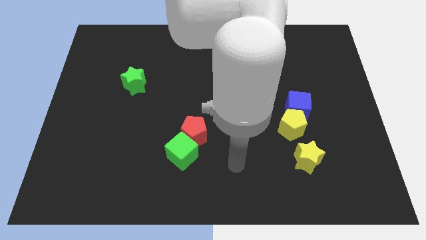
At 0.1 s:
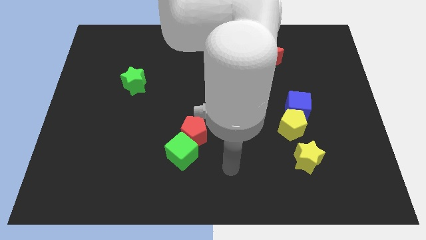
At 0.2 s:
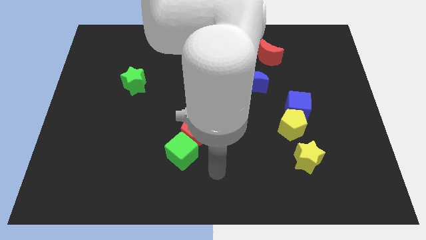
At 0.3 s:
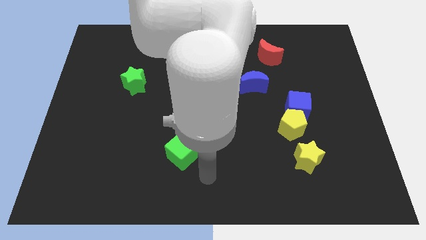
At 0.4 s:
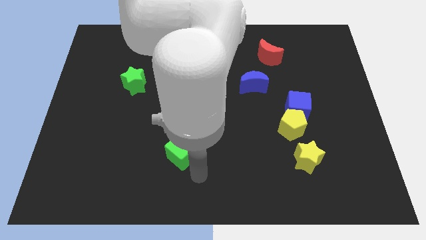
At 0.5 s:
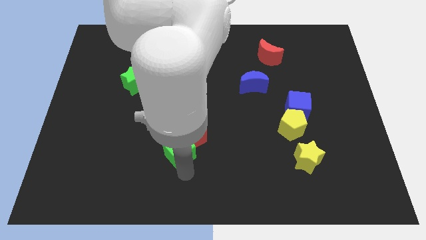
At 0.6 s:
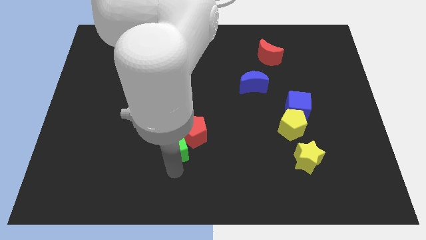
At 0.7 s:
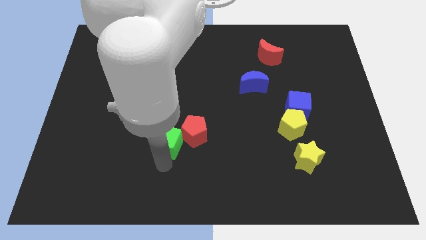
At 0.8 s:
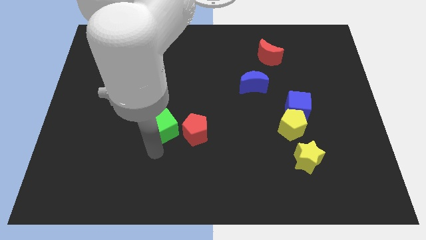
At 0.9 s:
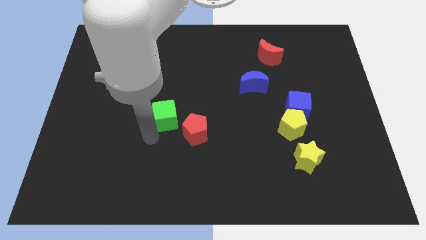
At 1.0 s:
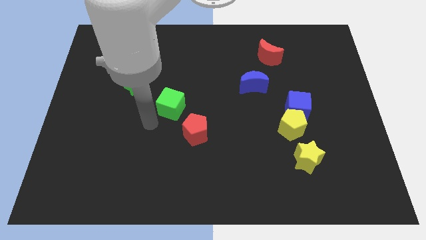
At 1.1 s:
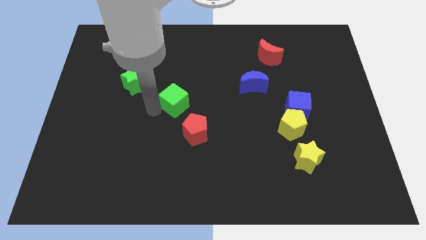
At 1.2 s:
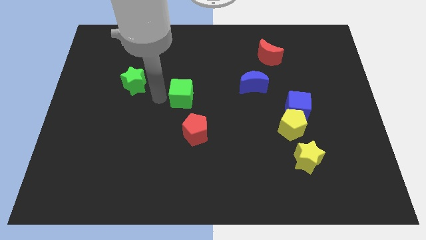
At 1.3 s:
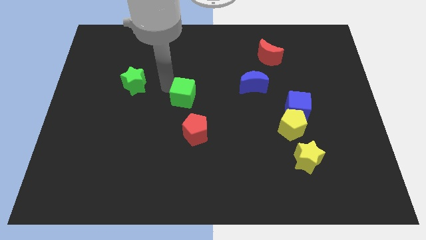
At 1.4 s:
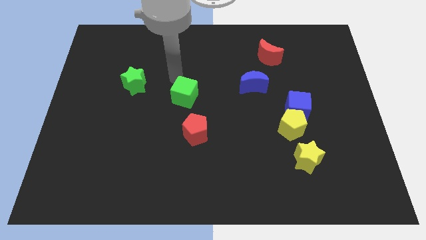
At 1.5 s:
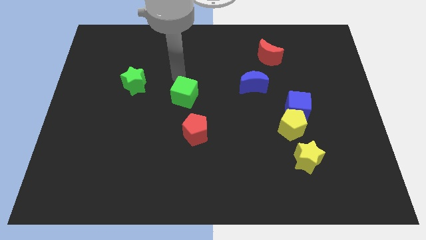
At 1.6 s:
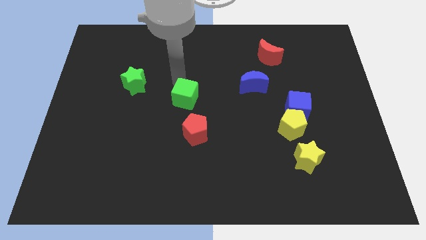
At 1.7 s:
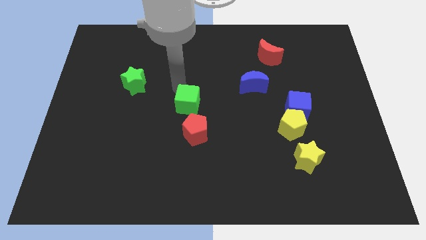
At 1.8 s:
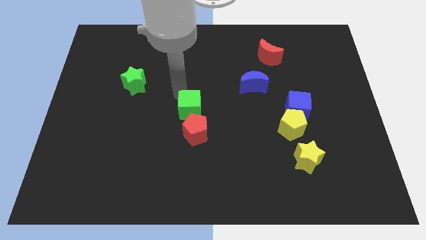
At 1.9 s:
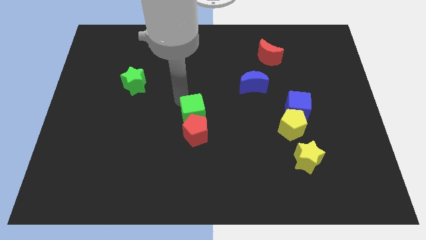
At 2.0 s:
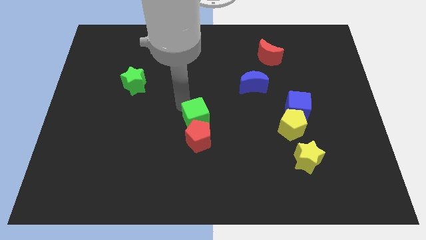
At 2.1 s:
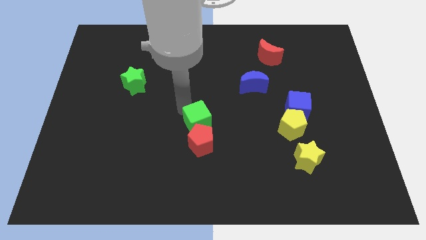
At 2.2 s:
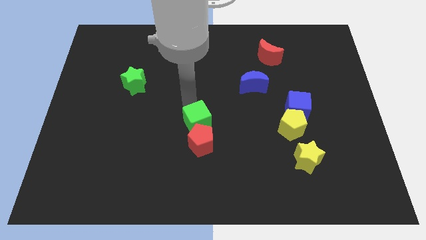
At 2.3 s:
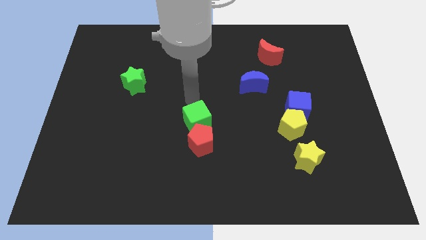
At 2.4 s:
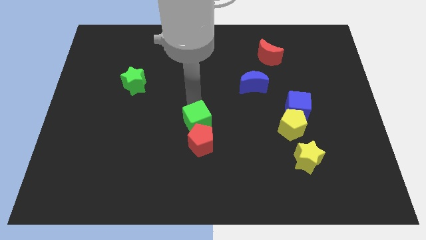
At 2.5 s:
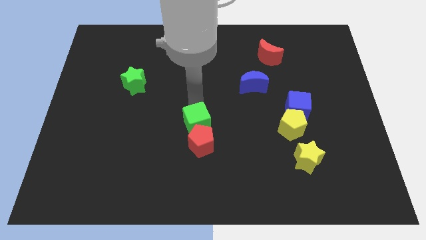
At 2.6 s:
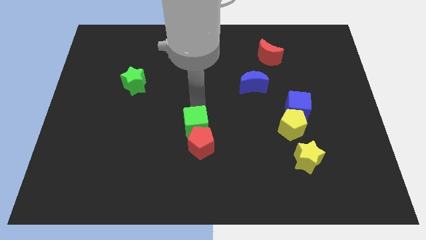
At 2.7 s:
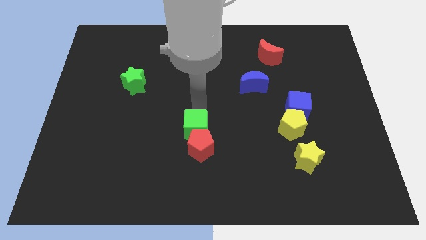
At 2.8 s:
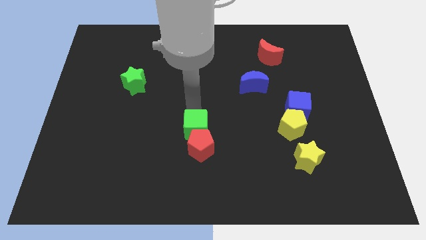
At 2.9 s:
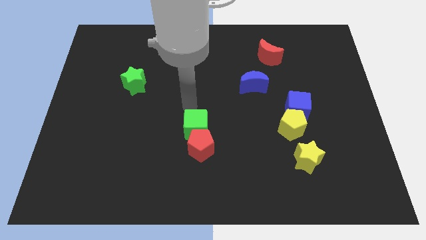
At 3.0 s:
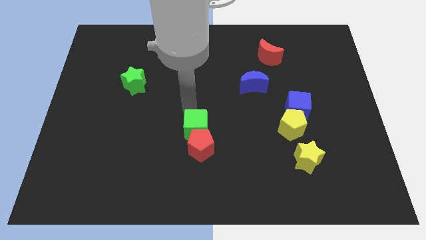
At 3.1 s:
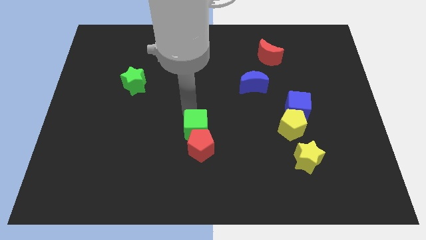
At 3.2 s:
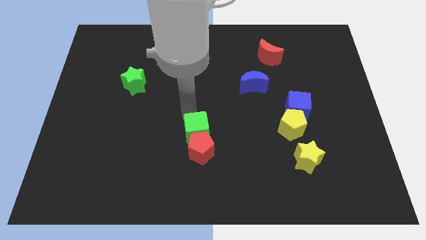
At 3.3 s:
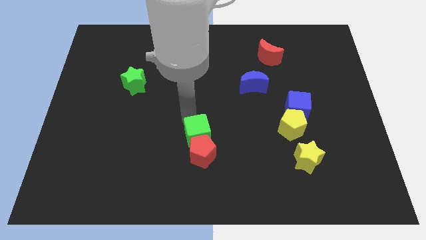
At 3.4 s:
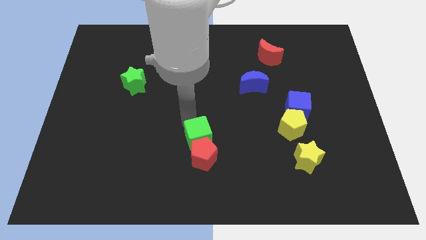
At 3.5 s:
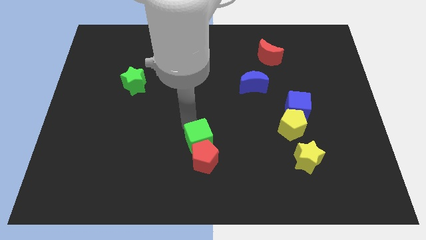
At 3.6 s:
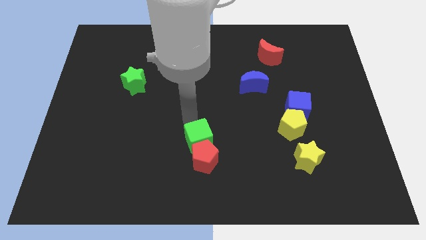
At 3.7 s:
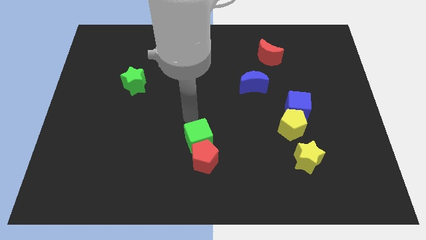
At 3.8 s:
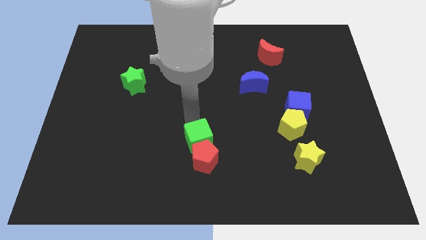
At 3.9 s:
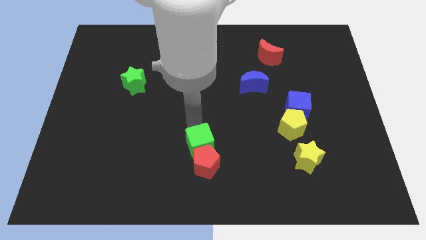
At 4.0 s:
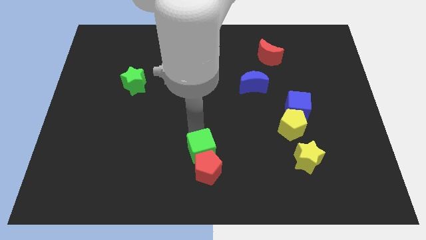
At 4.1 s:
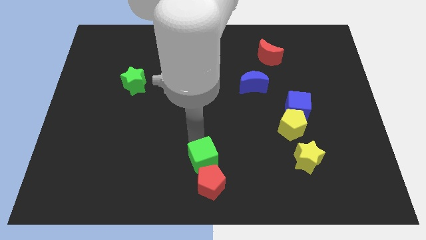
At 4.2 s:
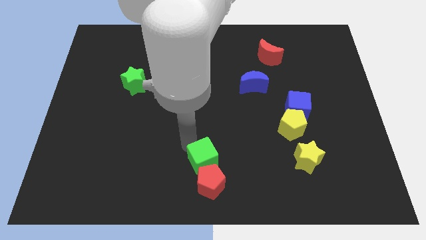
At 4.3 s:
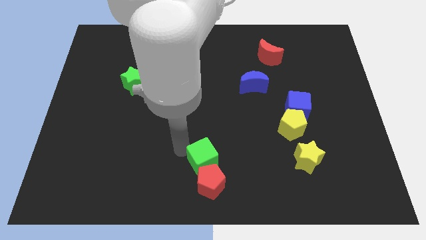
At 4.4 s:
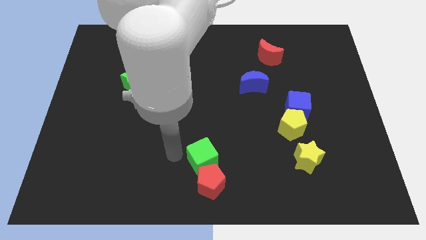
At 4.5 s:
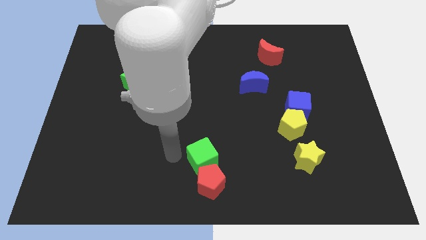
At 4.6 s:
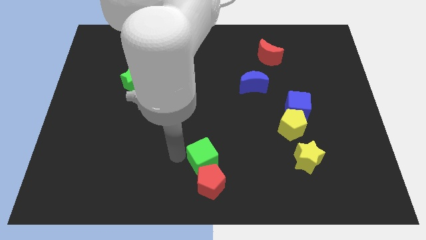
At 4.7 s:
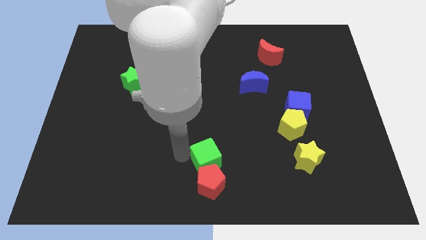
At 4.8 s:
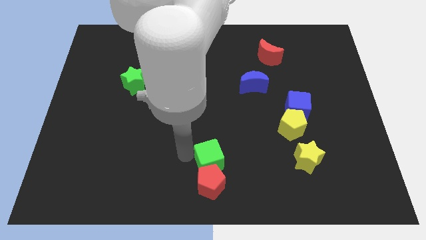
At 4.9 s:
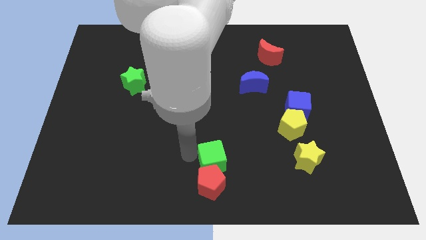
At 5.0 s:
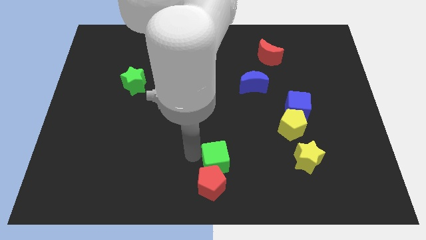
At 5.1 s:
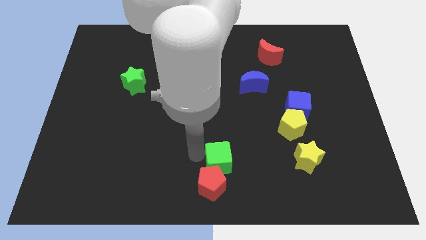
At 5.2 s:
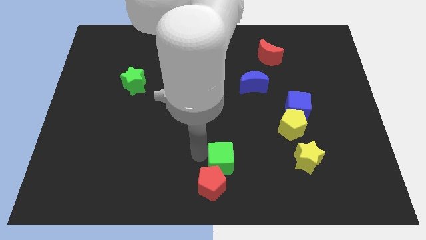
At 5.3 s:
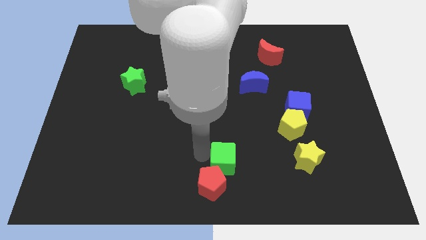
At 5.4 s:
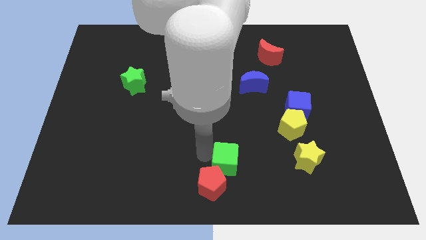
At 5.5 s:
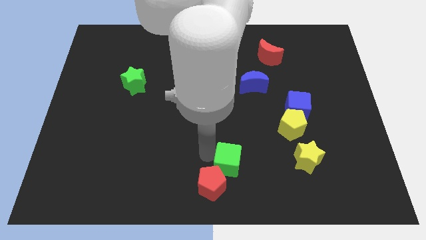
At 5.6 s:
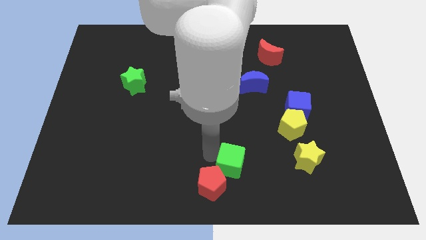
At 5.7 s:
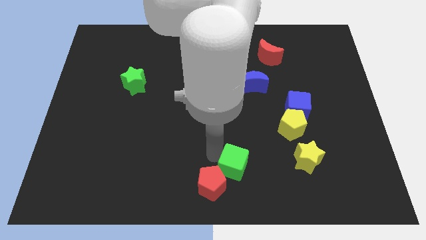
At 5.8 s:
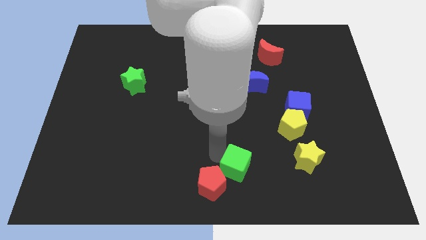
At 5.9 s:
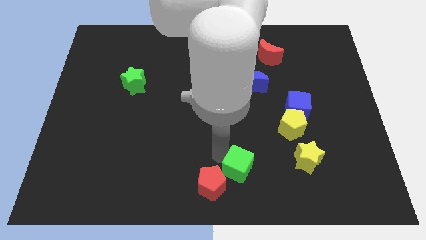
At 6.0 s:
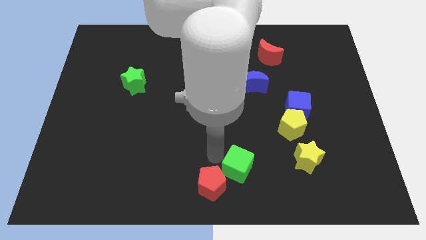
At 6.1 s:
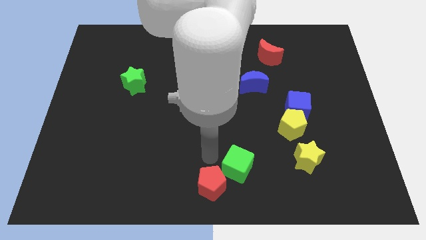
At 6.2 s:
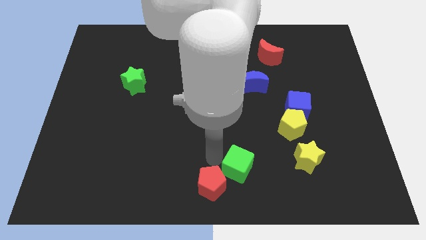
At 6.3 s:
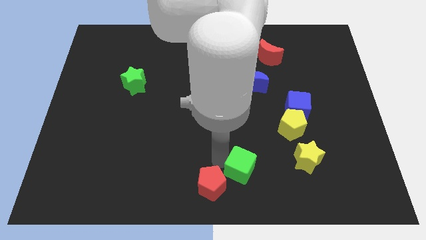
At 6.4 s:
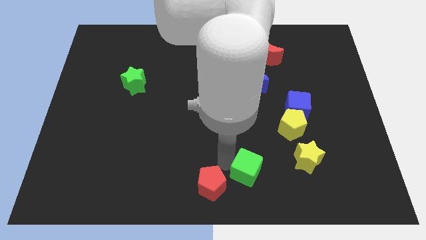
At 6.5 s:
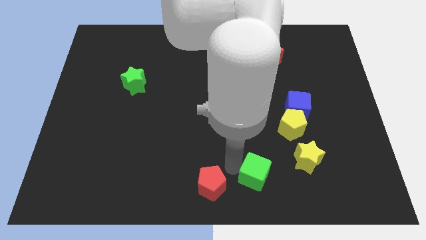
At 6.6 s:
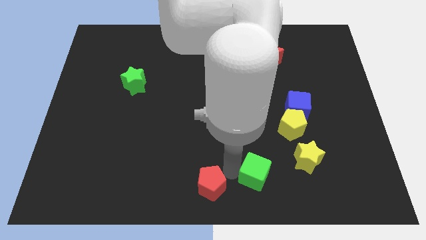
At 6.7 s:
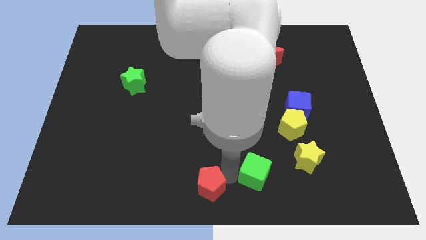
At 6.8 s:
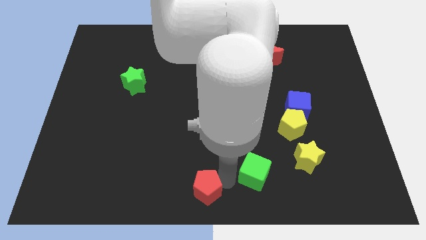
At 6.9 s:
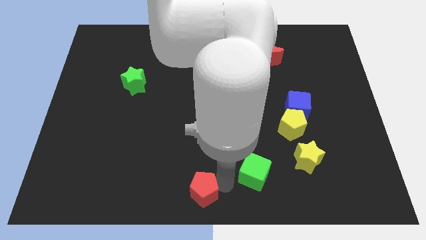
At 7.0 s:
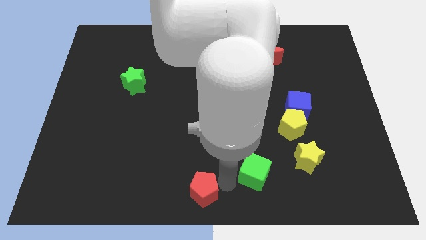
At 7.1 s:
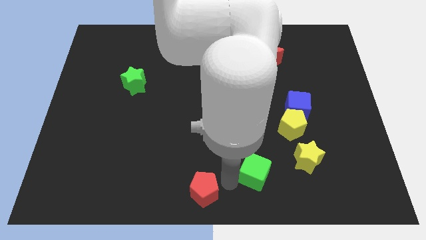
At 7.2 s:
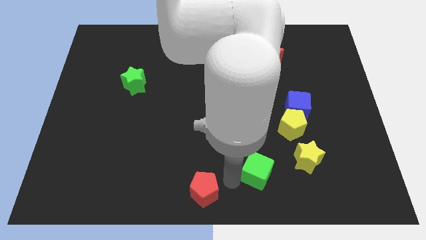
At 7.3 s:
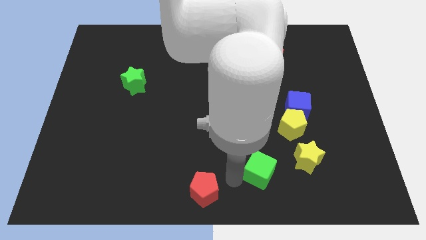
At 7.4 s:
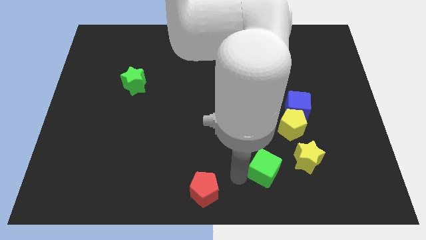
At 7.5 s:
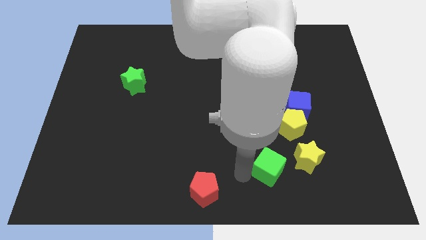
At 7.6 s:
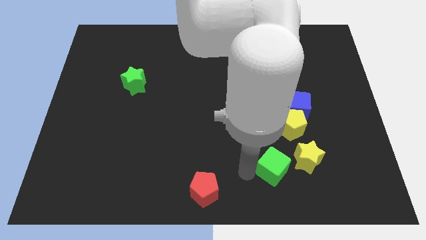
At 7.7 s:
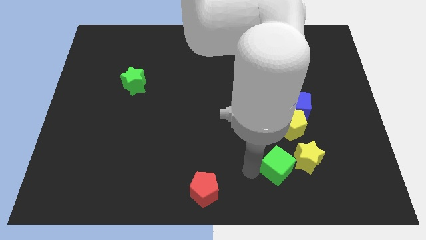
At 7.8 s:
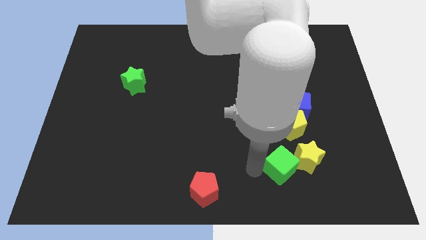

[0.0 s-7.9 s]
slide the green cube next to the yellow star
